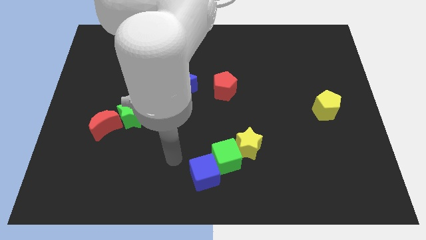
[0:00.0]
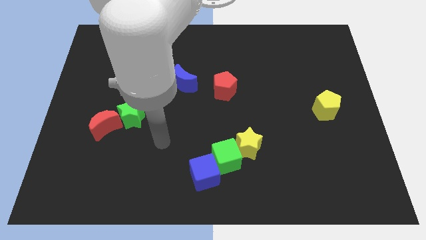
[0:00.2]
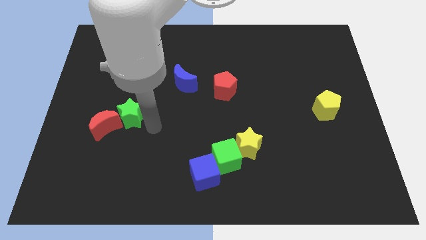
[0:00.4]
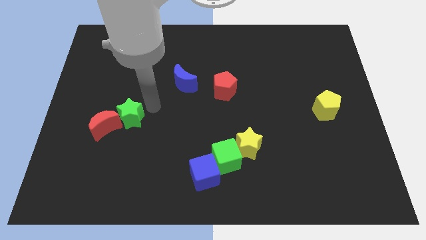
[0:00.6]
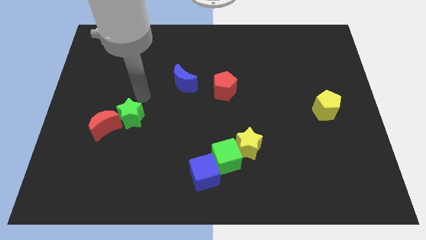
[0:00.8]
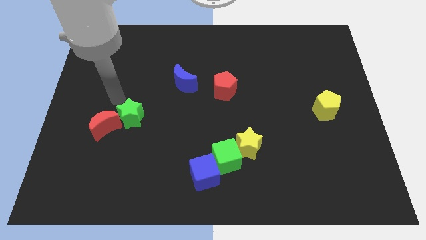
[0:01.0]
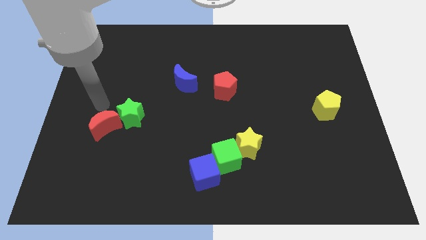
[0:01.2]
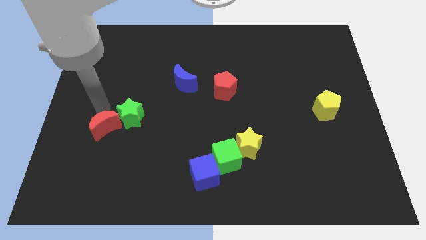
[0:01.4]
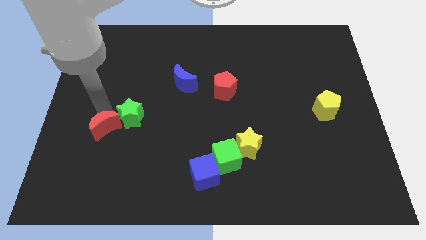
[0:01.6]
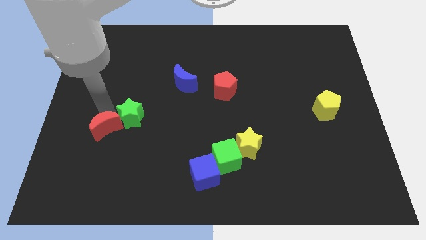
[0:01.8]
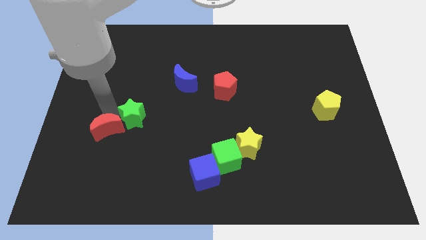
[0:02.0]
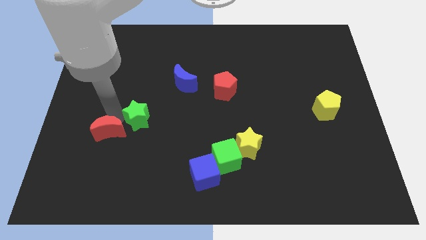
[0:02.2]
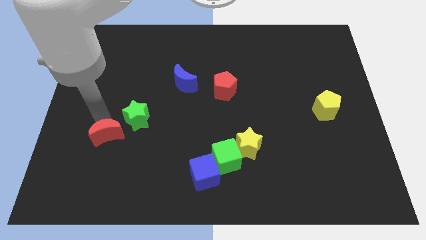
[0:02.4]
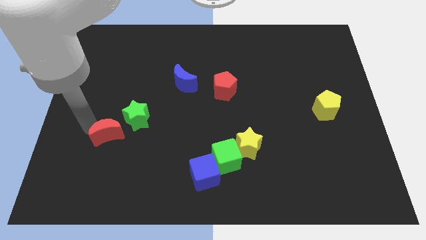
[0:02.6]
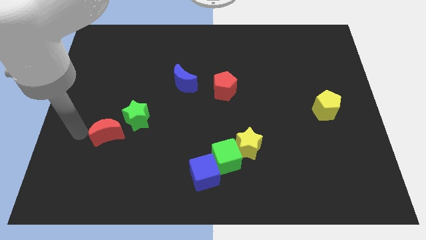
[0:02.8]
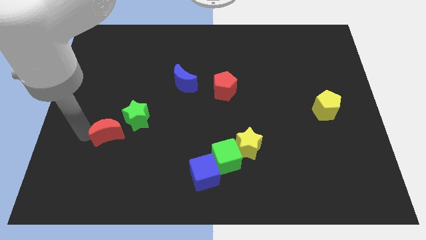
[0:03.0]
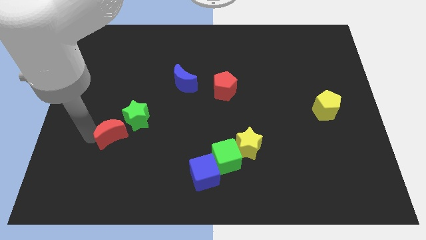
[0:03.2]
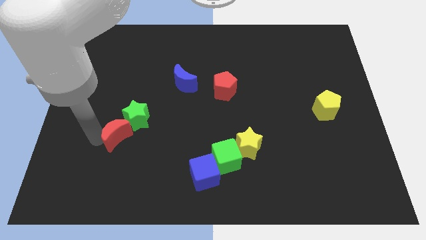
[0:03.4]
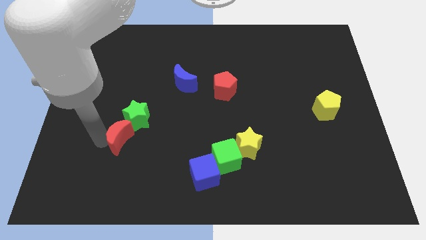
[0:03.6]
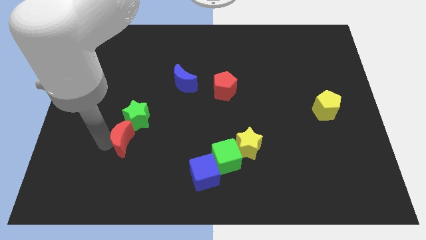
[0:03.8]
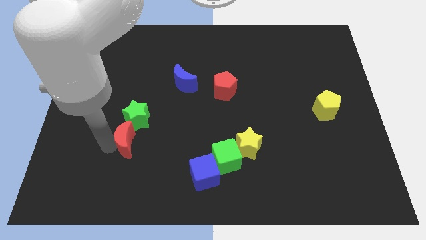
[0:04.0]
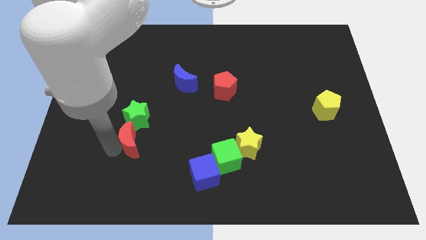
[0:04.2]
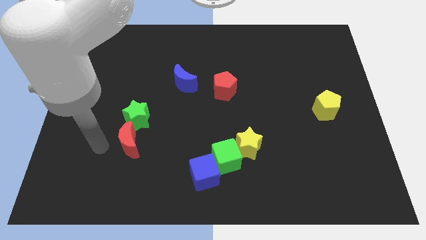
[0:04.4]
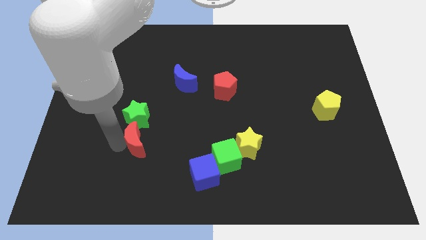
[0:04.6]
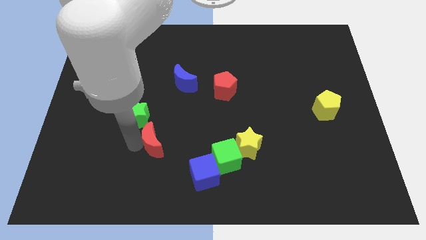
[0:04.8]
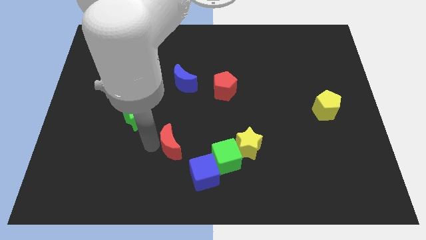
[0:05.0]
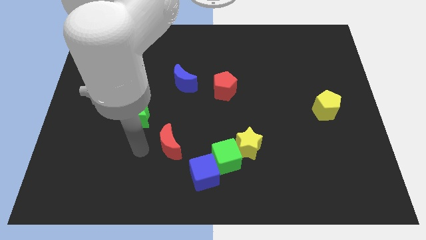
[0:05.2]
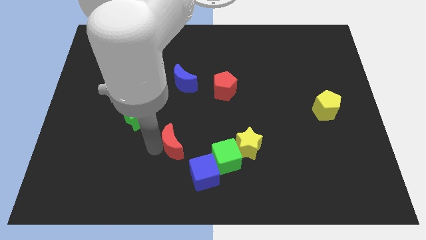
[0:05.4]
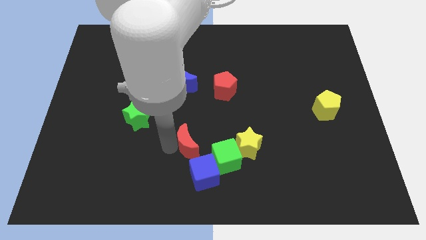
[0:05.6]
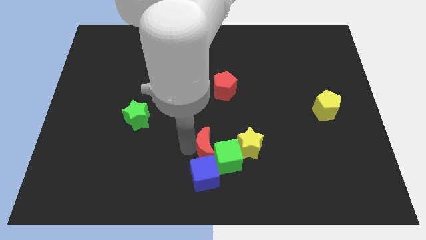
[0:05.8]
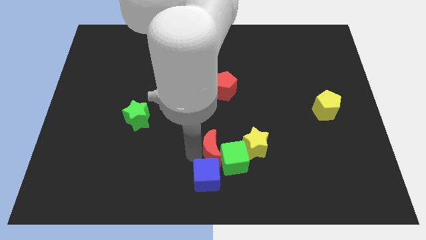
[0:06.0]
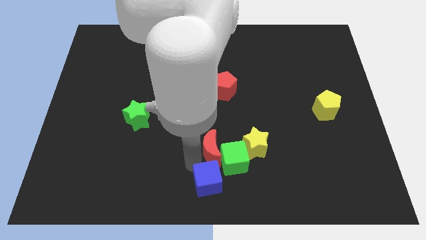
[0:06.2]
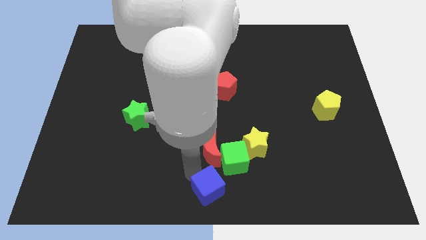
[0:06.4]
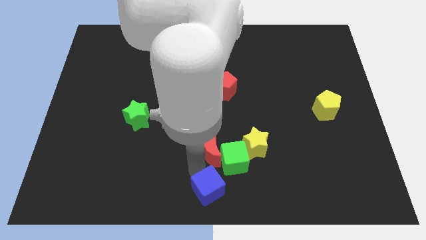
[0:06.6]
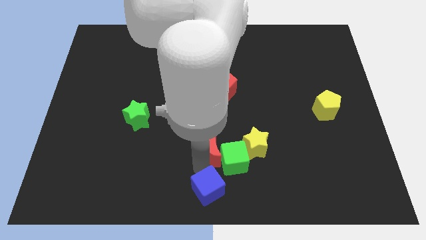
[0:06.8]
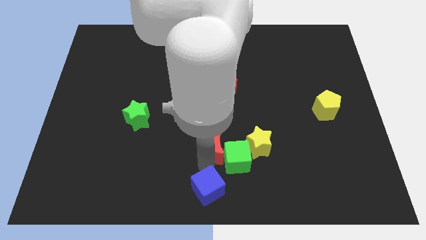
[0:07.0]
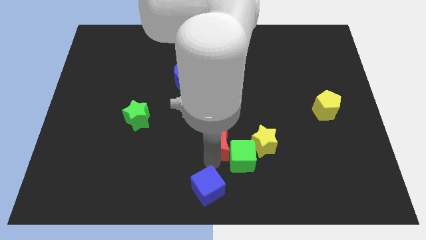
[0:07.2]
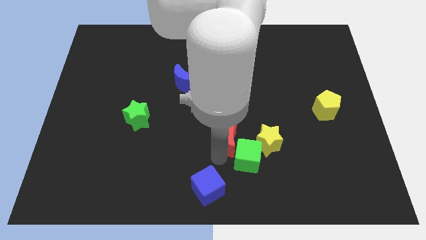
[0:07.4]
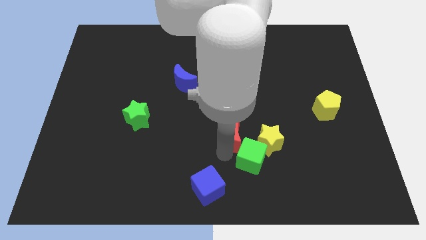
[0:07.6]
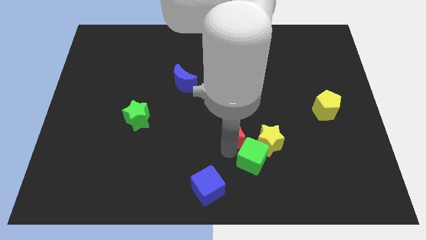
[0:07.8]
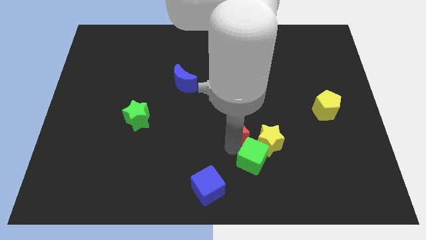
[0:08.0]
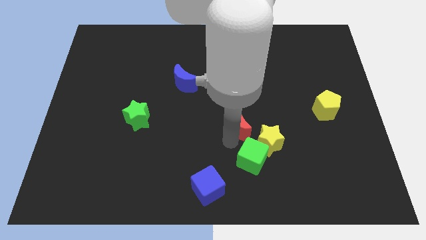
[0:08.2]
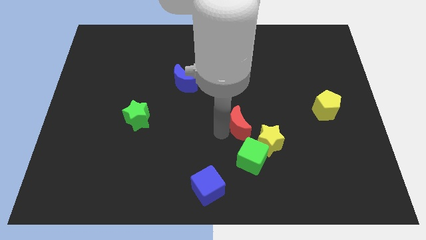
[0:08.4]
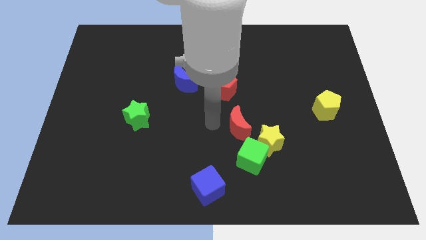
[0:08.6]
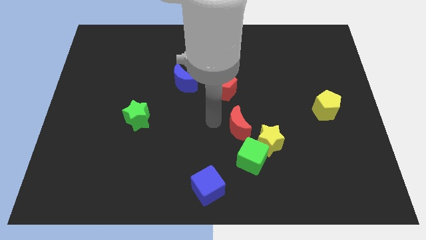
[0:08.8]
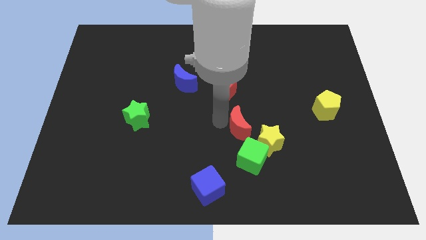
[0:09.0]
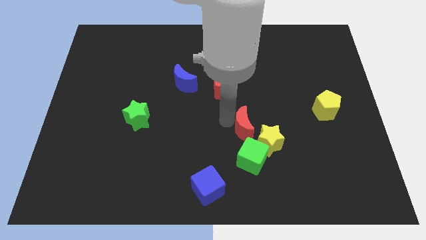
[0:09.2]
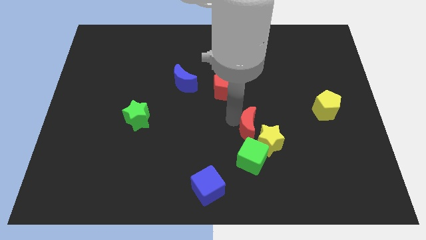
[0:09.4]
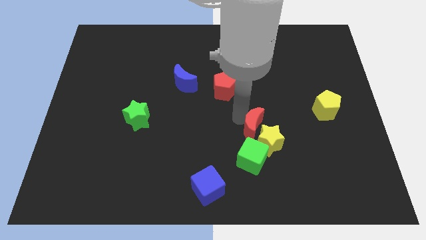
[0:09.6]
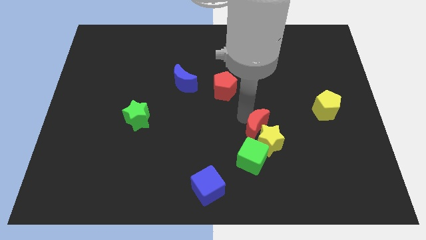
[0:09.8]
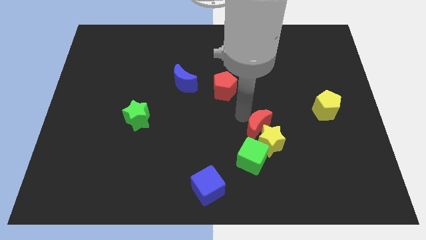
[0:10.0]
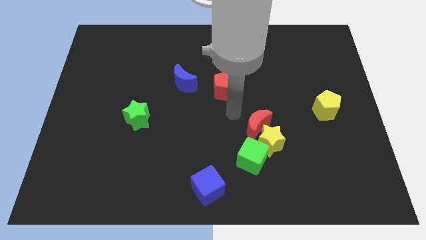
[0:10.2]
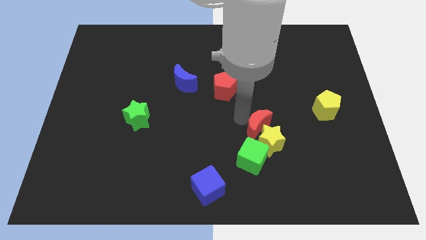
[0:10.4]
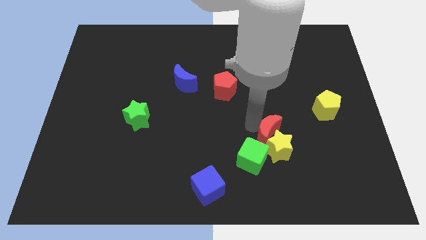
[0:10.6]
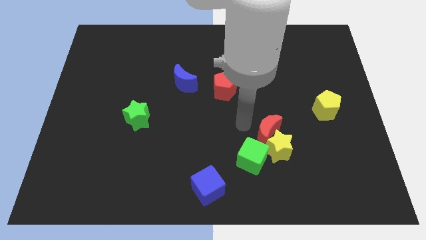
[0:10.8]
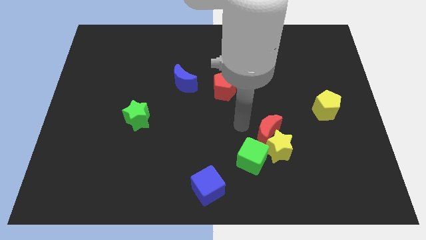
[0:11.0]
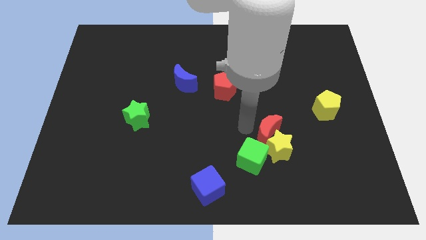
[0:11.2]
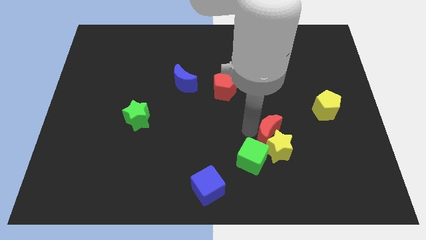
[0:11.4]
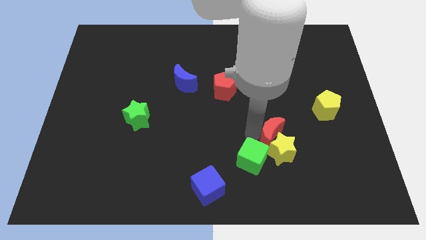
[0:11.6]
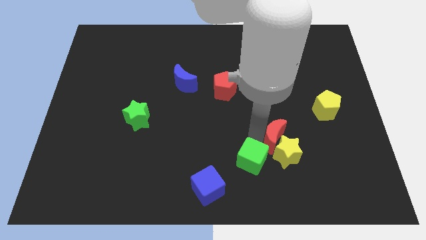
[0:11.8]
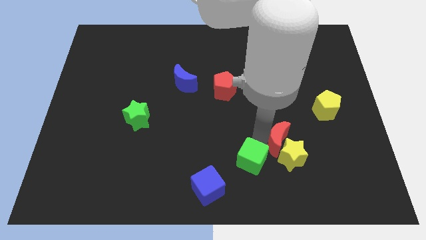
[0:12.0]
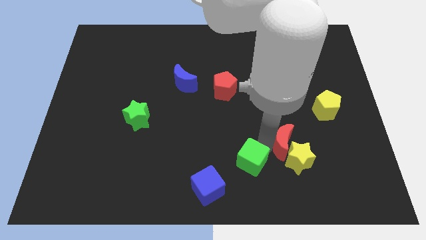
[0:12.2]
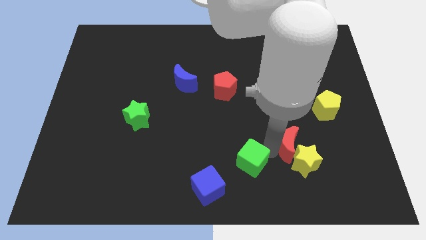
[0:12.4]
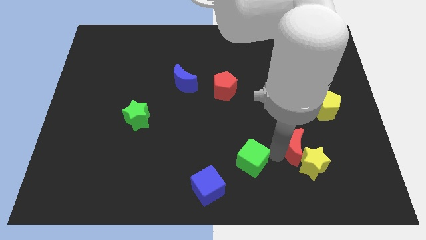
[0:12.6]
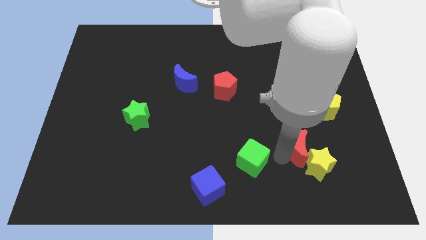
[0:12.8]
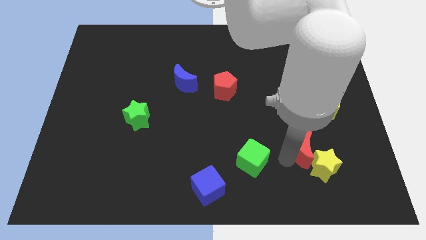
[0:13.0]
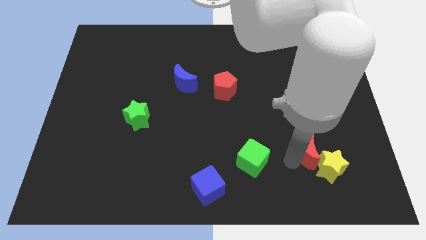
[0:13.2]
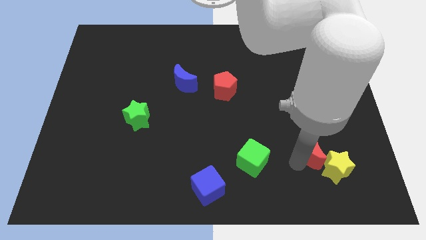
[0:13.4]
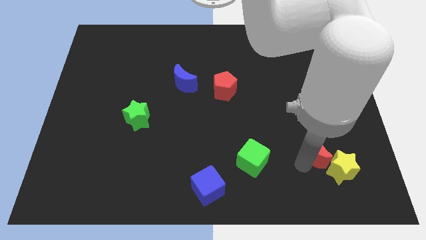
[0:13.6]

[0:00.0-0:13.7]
push the red moon below the yellow pentagon
